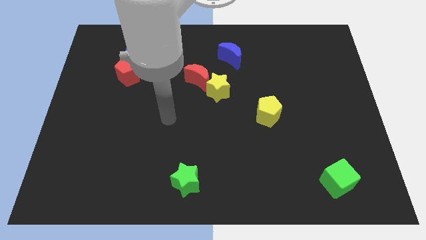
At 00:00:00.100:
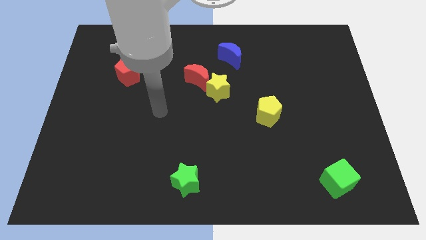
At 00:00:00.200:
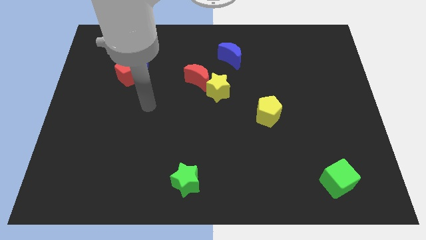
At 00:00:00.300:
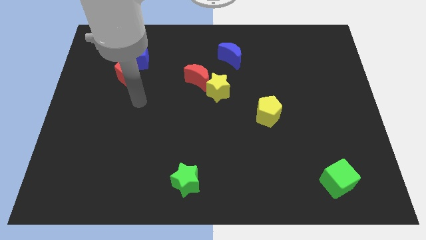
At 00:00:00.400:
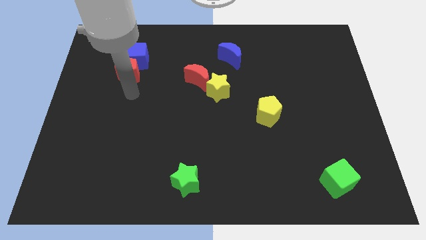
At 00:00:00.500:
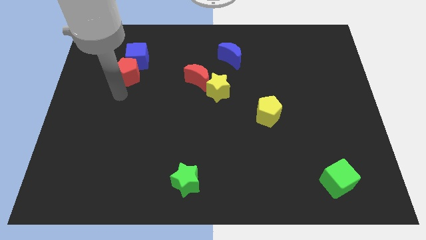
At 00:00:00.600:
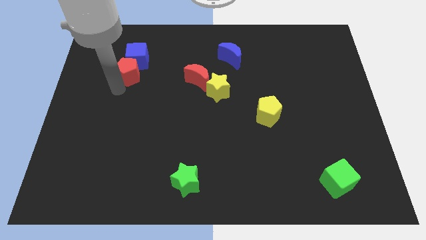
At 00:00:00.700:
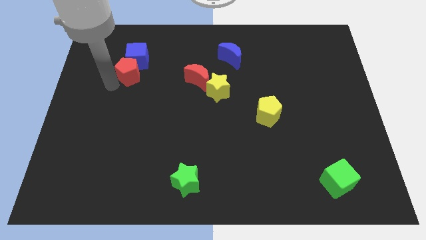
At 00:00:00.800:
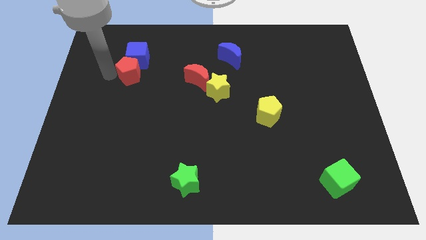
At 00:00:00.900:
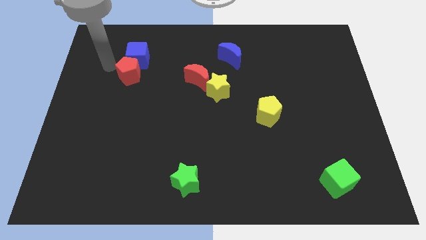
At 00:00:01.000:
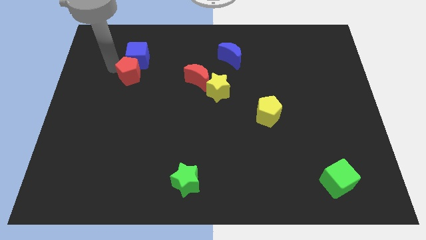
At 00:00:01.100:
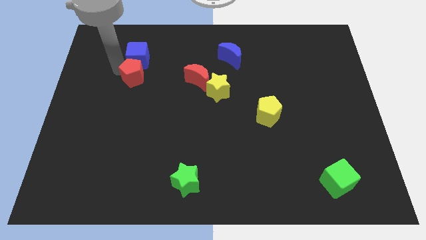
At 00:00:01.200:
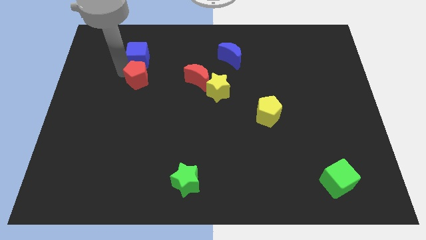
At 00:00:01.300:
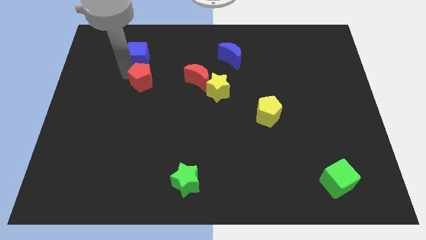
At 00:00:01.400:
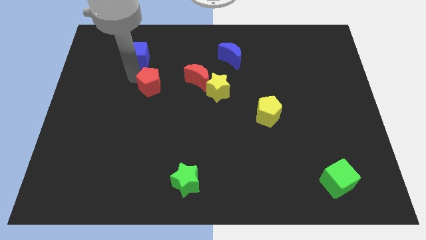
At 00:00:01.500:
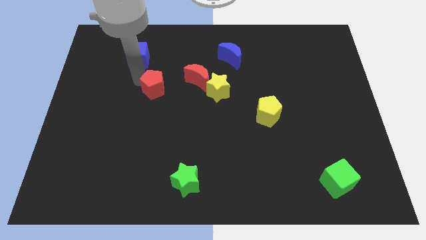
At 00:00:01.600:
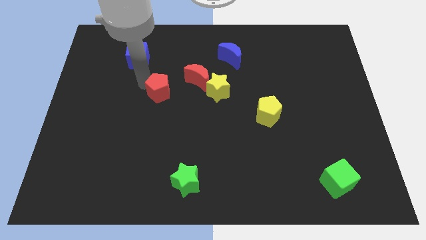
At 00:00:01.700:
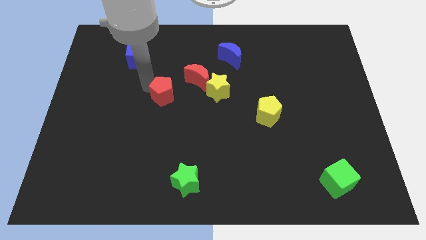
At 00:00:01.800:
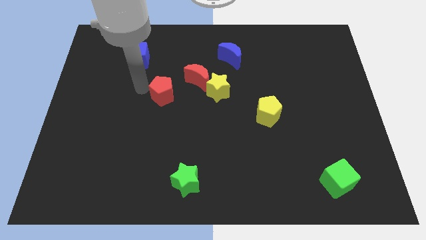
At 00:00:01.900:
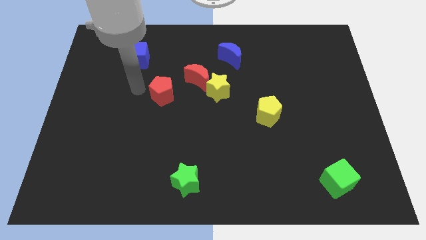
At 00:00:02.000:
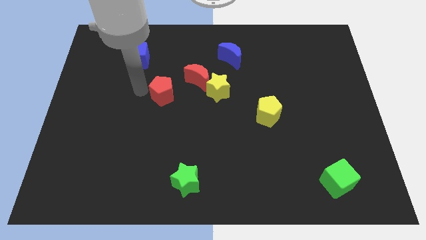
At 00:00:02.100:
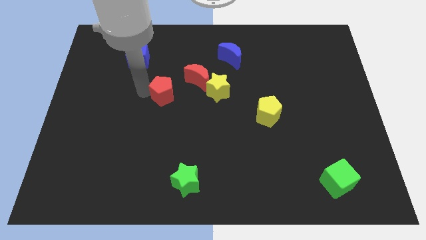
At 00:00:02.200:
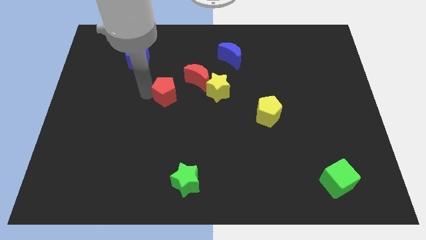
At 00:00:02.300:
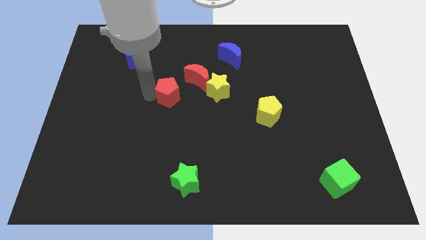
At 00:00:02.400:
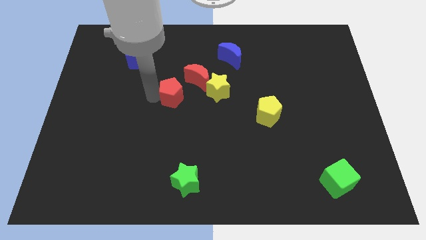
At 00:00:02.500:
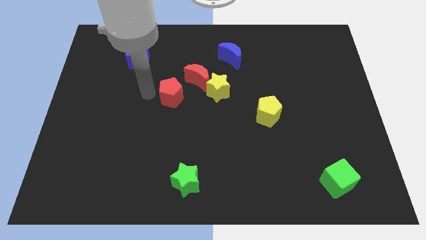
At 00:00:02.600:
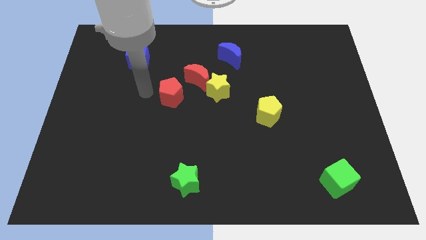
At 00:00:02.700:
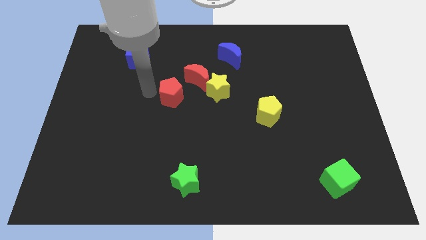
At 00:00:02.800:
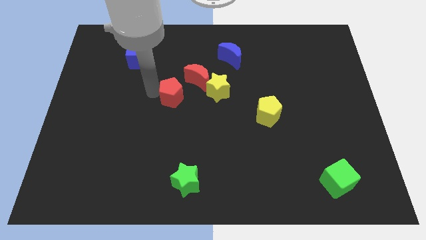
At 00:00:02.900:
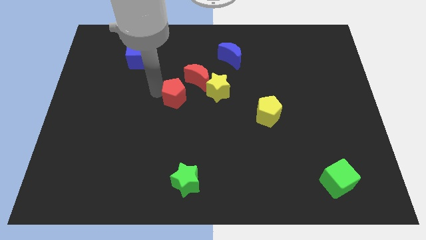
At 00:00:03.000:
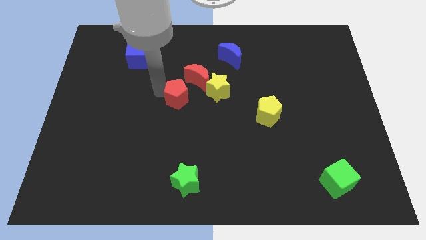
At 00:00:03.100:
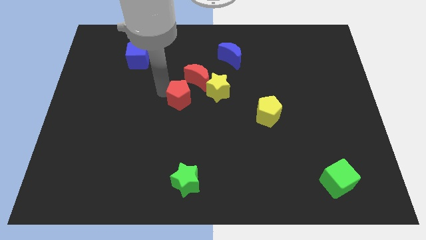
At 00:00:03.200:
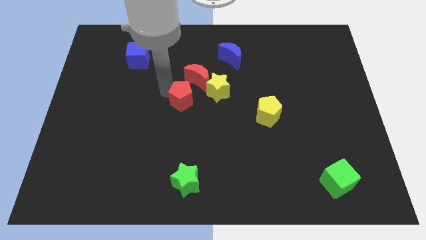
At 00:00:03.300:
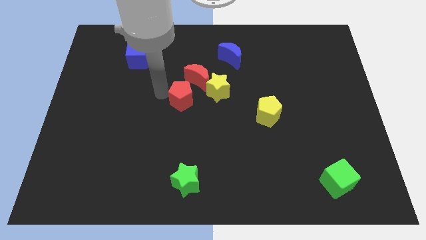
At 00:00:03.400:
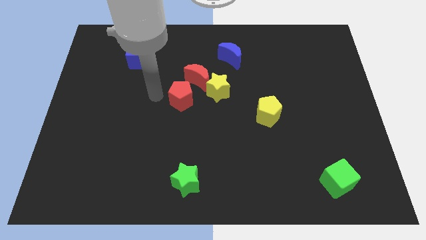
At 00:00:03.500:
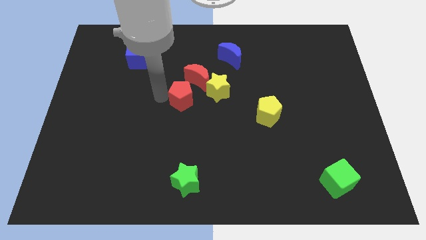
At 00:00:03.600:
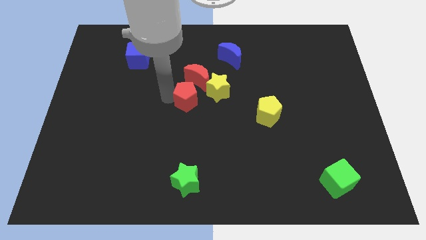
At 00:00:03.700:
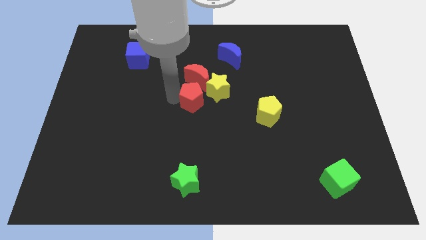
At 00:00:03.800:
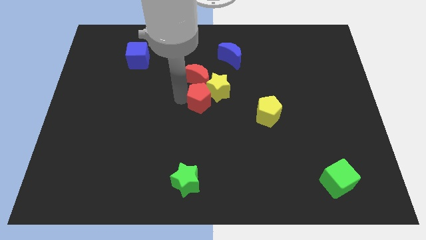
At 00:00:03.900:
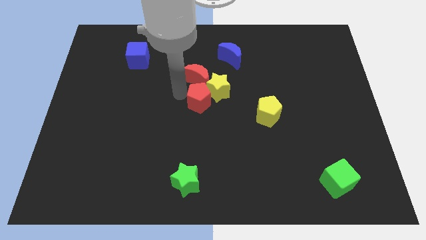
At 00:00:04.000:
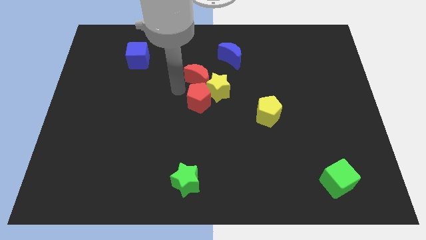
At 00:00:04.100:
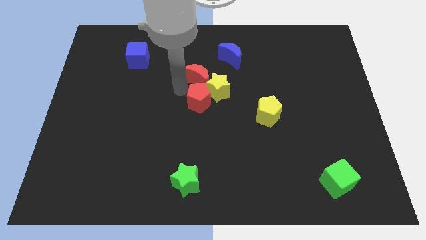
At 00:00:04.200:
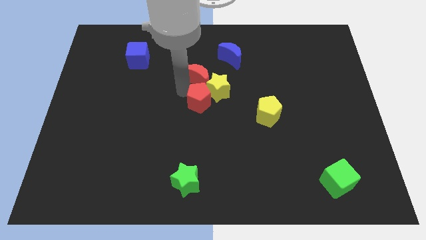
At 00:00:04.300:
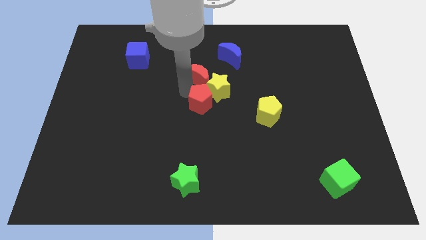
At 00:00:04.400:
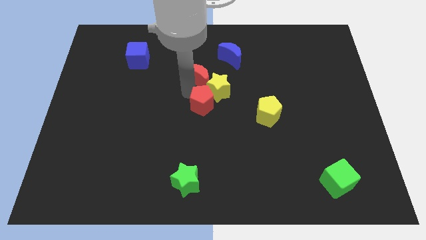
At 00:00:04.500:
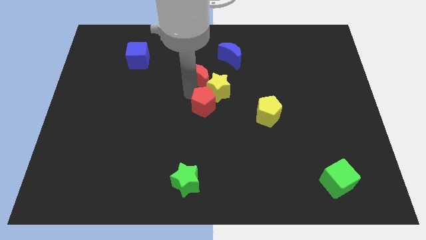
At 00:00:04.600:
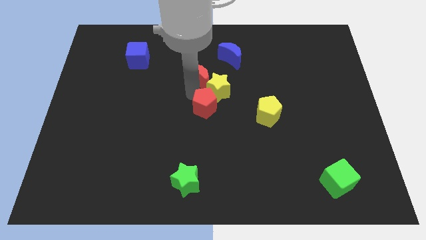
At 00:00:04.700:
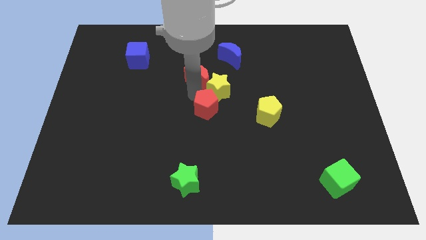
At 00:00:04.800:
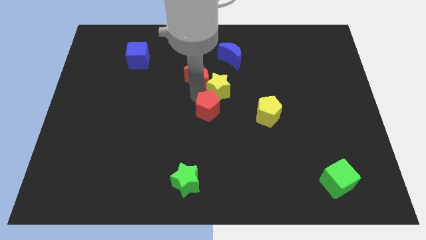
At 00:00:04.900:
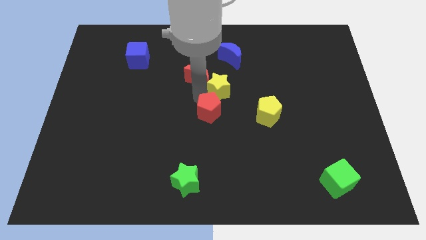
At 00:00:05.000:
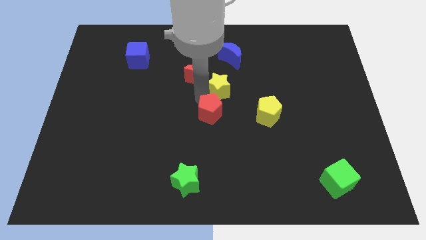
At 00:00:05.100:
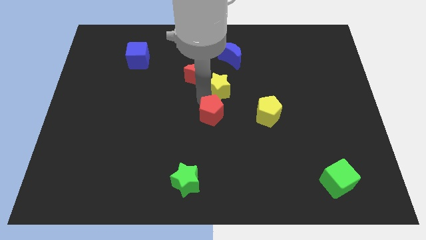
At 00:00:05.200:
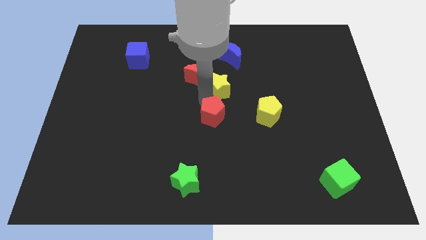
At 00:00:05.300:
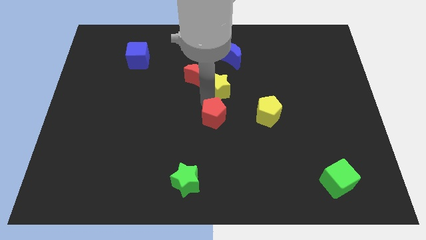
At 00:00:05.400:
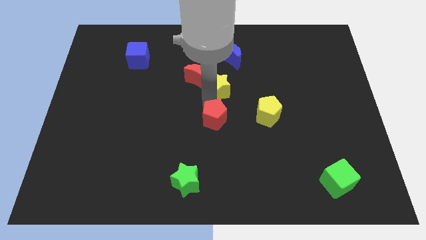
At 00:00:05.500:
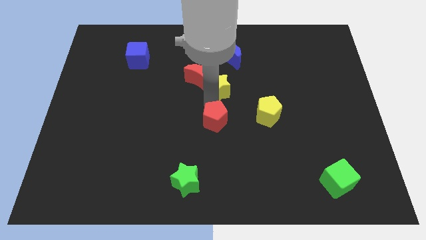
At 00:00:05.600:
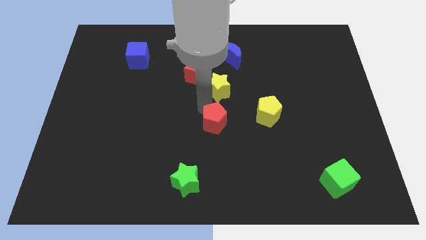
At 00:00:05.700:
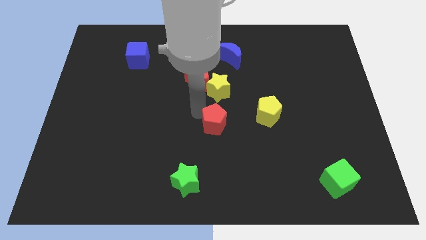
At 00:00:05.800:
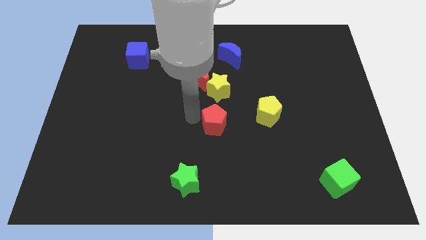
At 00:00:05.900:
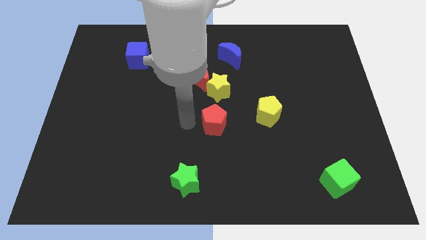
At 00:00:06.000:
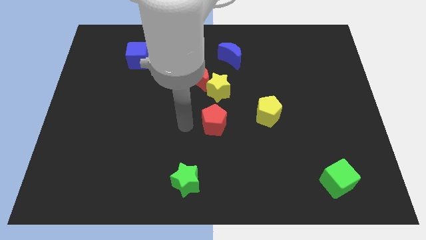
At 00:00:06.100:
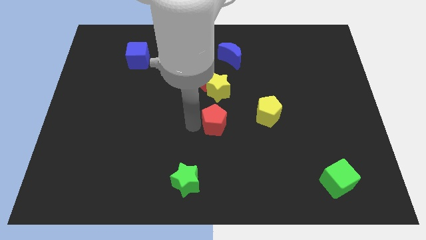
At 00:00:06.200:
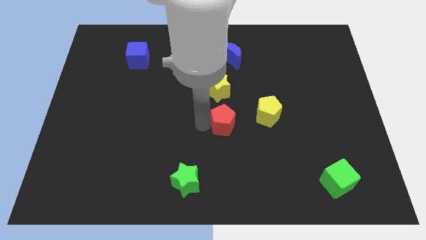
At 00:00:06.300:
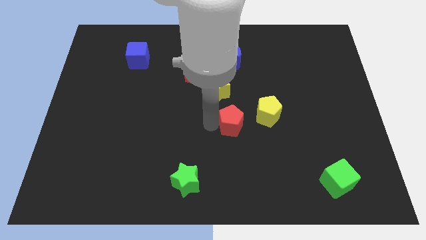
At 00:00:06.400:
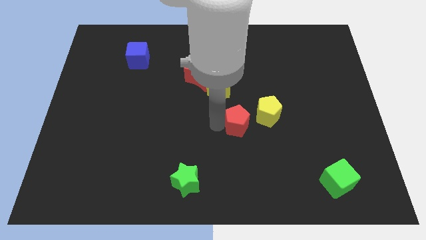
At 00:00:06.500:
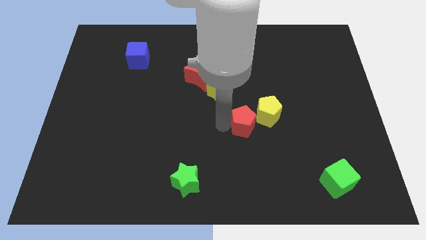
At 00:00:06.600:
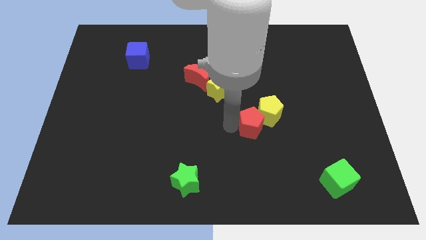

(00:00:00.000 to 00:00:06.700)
put the red pentagon next to the yellow pentagon
